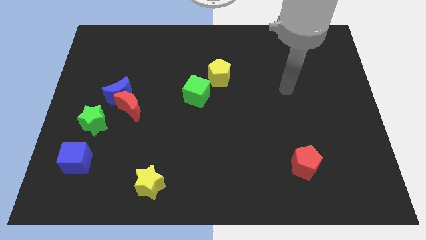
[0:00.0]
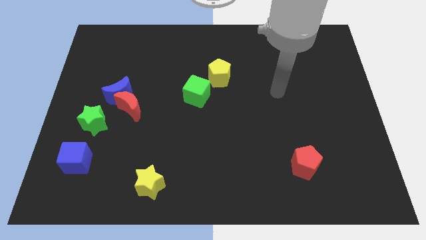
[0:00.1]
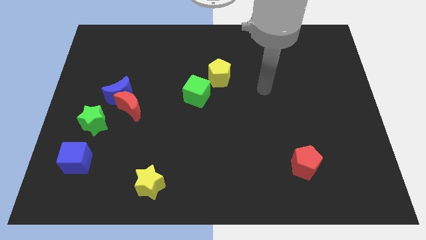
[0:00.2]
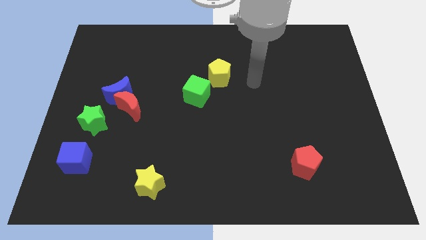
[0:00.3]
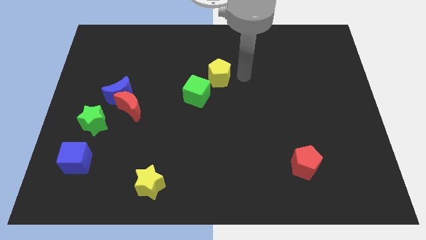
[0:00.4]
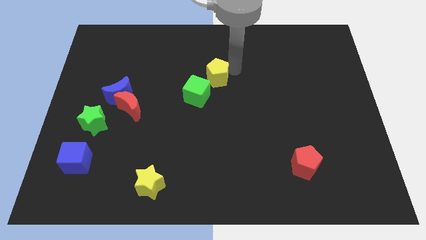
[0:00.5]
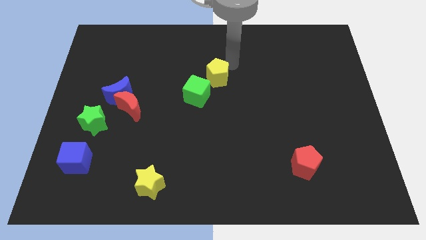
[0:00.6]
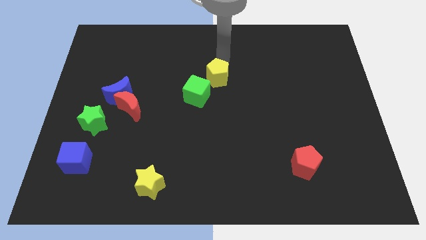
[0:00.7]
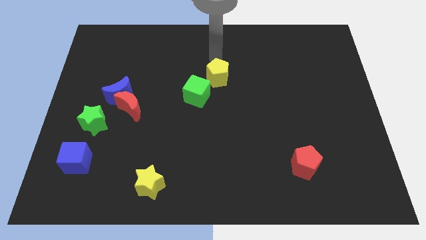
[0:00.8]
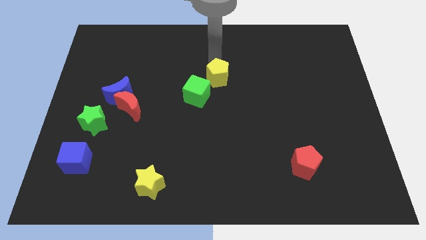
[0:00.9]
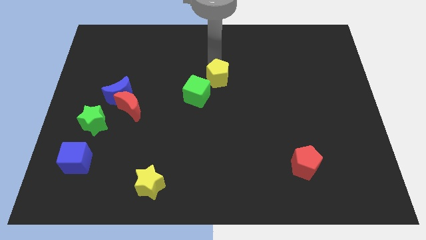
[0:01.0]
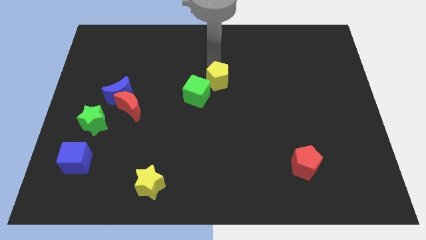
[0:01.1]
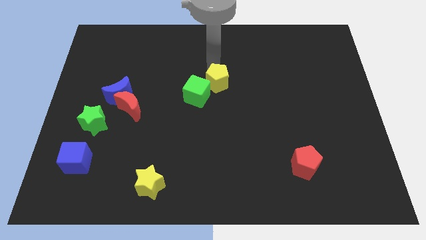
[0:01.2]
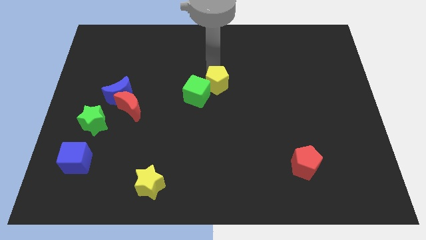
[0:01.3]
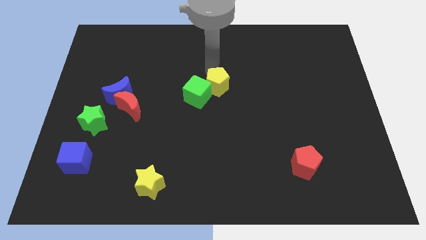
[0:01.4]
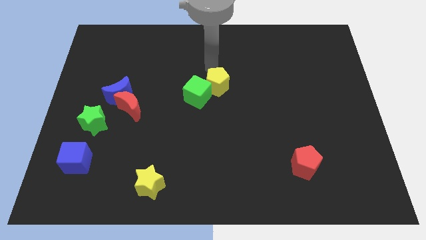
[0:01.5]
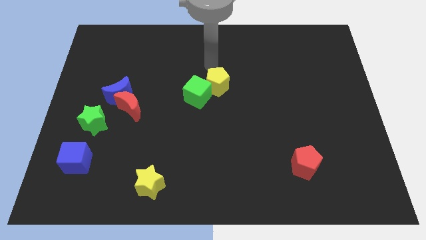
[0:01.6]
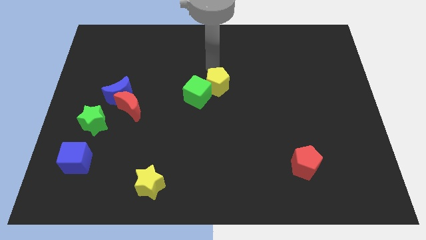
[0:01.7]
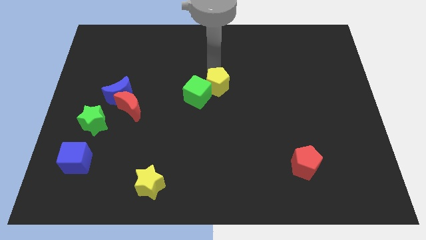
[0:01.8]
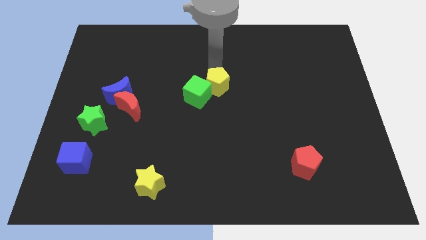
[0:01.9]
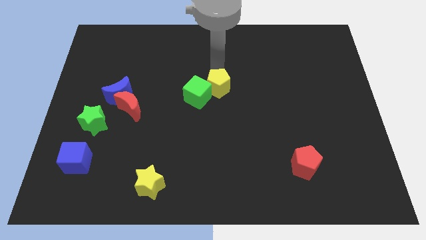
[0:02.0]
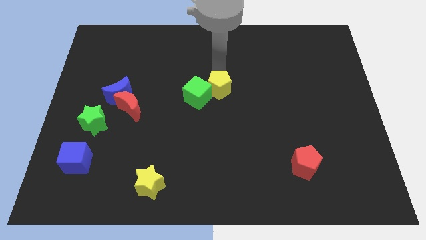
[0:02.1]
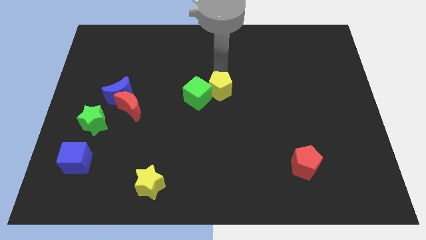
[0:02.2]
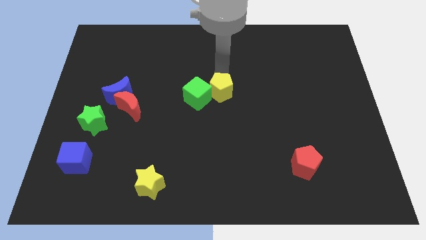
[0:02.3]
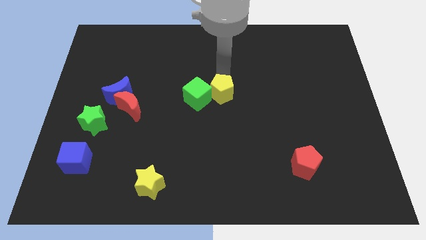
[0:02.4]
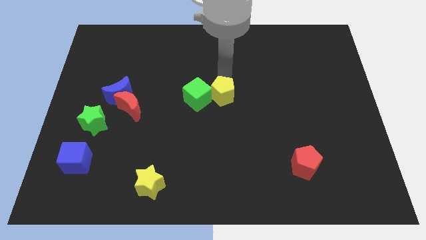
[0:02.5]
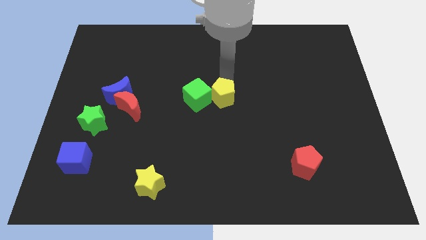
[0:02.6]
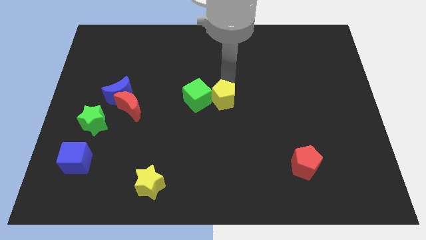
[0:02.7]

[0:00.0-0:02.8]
slide the yellow pentagon somewhat down

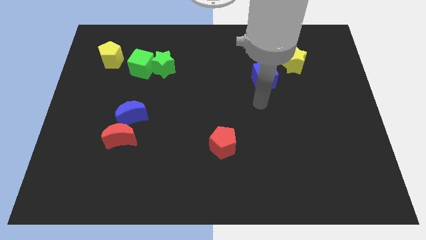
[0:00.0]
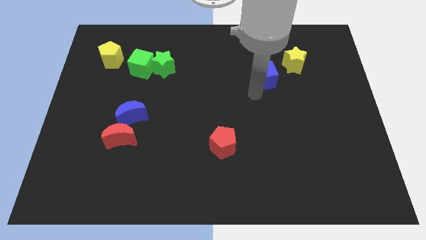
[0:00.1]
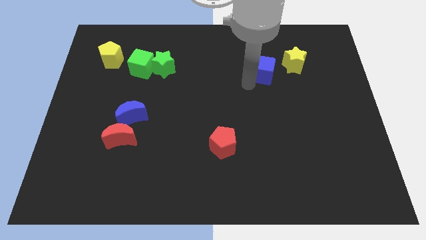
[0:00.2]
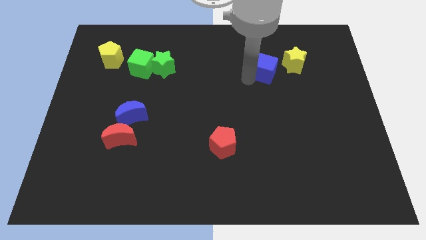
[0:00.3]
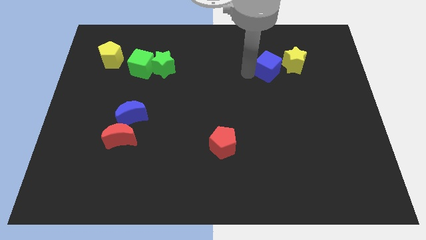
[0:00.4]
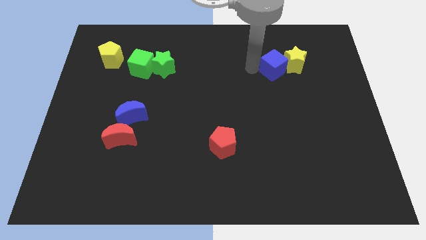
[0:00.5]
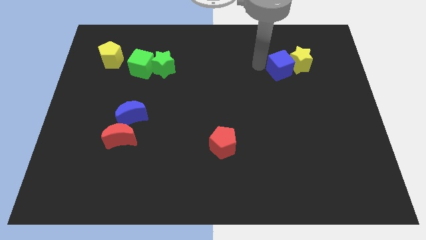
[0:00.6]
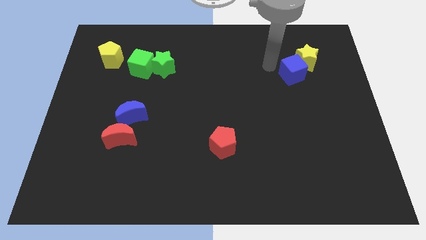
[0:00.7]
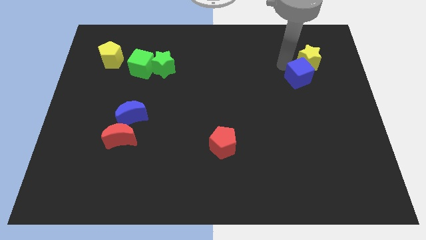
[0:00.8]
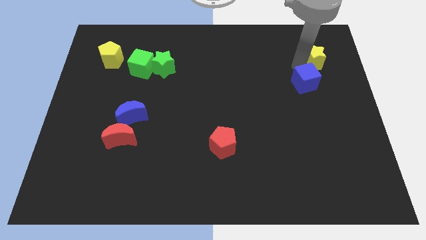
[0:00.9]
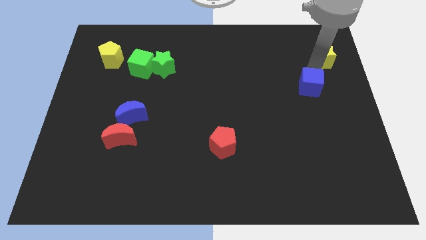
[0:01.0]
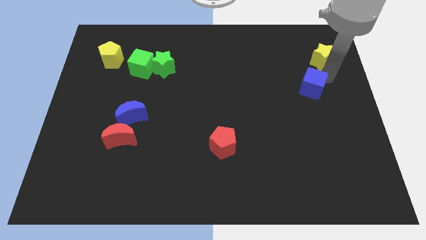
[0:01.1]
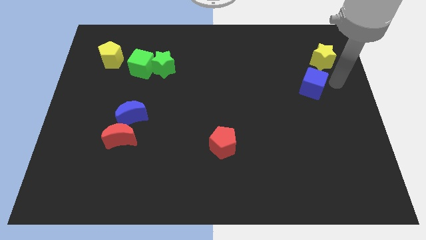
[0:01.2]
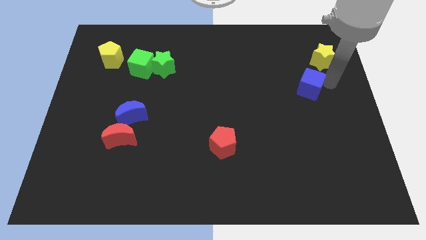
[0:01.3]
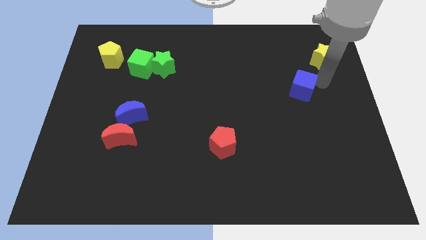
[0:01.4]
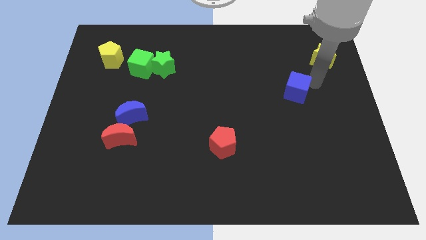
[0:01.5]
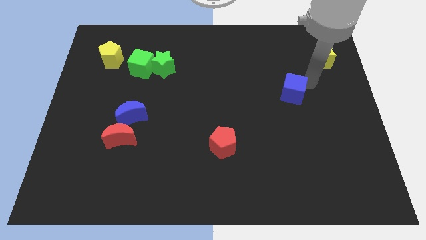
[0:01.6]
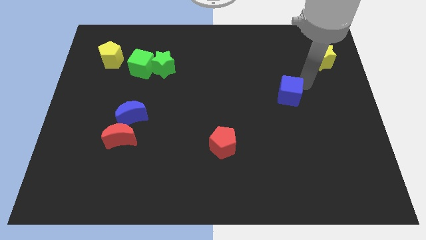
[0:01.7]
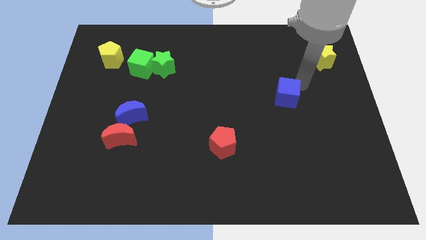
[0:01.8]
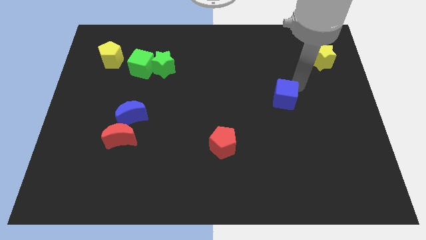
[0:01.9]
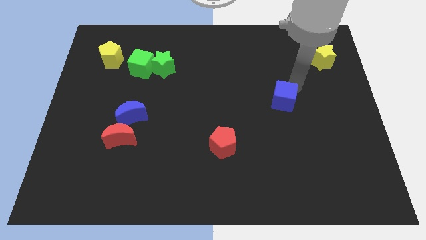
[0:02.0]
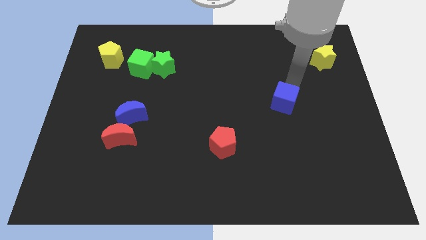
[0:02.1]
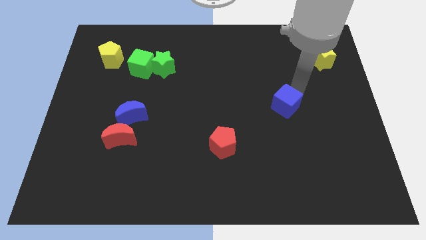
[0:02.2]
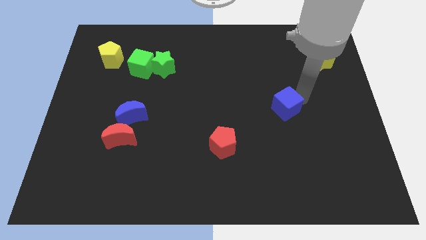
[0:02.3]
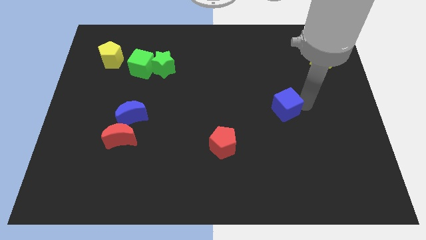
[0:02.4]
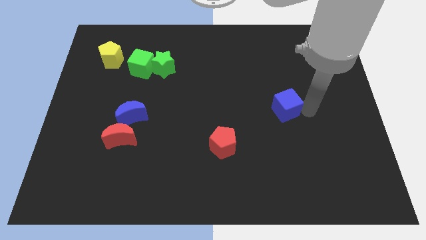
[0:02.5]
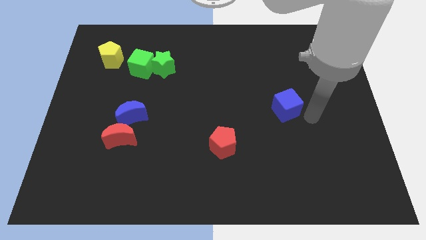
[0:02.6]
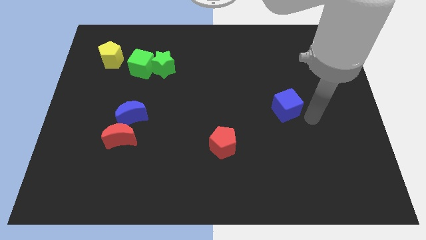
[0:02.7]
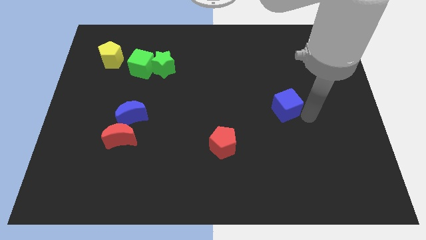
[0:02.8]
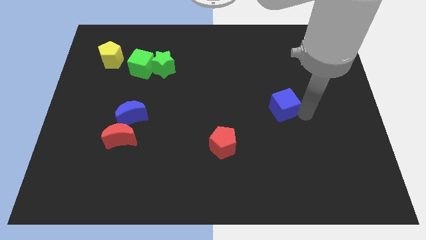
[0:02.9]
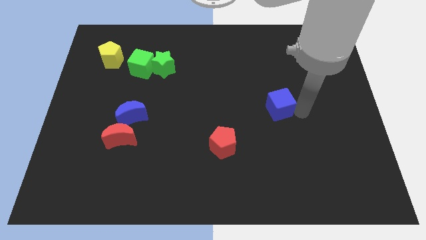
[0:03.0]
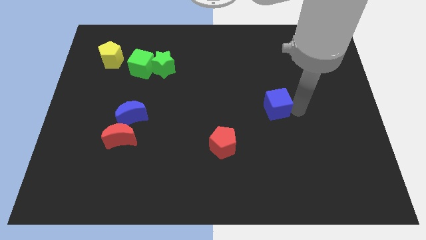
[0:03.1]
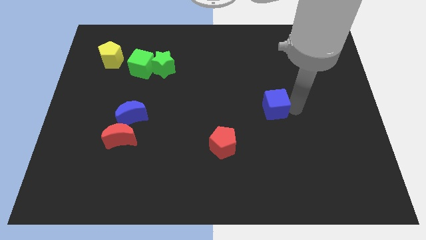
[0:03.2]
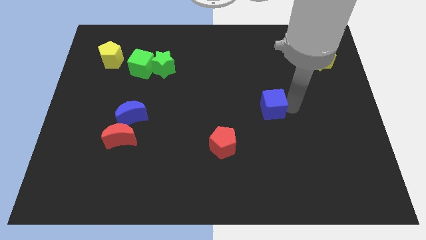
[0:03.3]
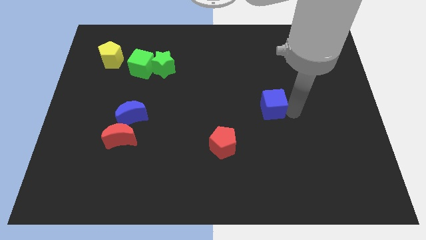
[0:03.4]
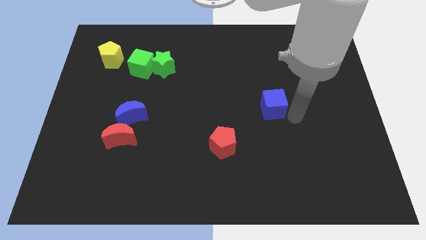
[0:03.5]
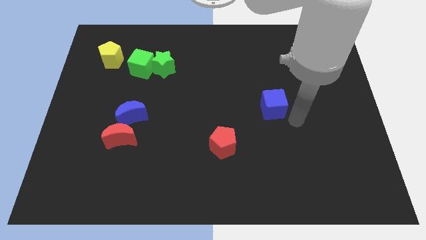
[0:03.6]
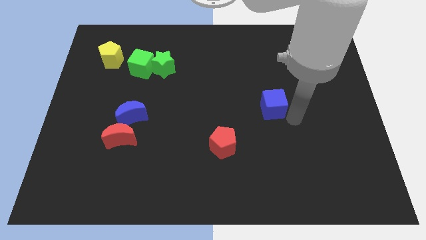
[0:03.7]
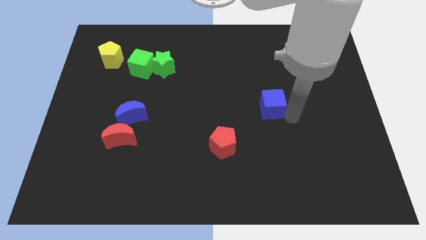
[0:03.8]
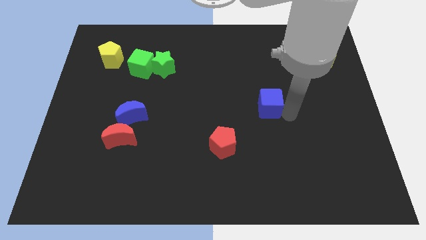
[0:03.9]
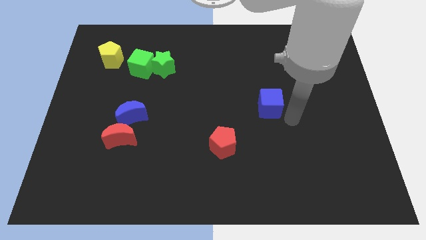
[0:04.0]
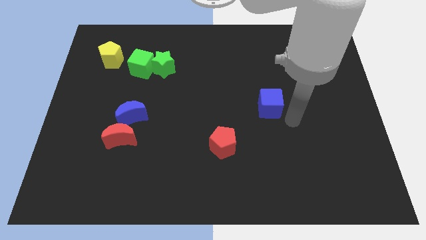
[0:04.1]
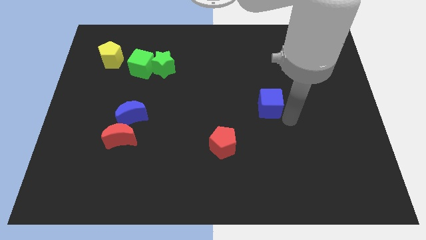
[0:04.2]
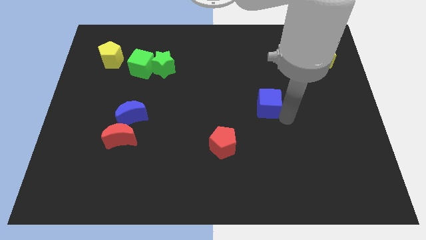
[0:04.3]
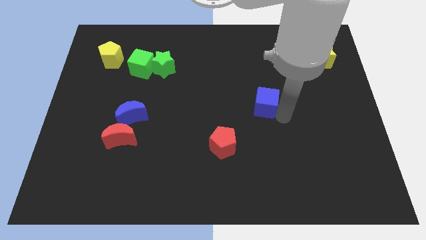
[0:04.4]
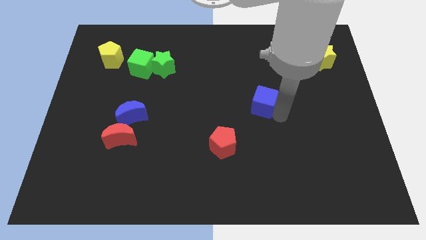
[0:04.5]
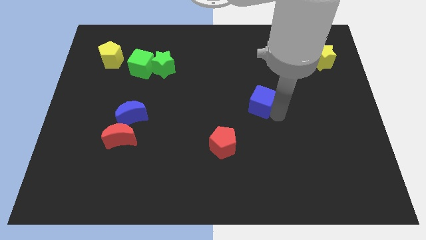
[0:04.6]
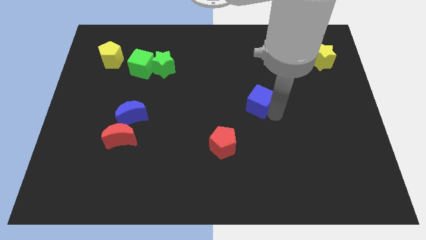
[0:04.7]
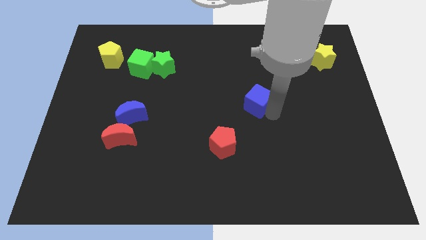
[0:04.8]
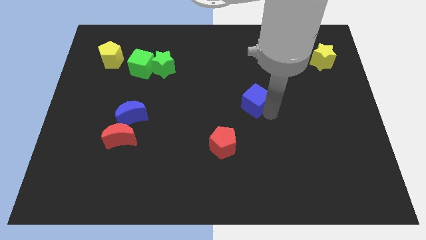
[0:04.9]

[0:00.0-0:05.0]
slide the blue cube a little bit downwards and then to the left

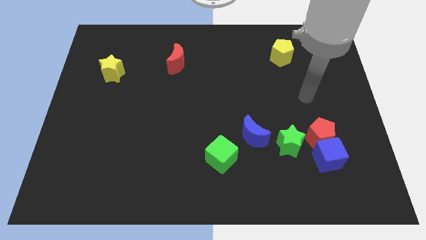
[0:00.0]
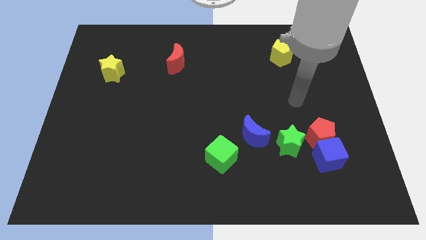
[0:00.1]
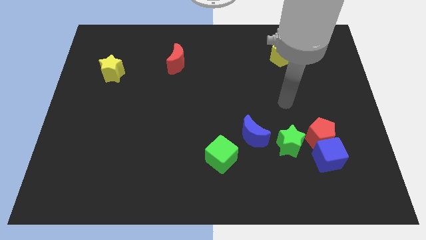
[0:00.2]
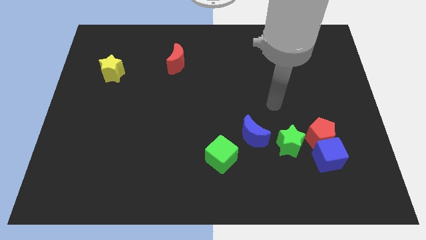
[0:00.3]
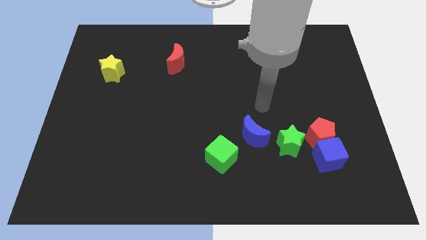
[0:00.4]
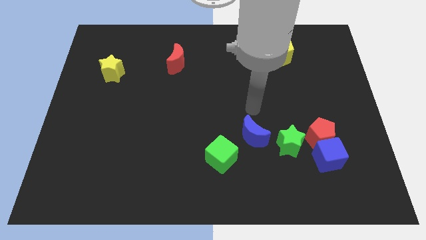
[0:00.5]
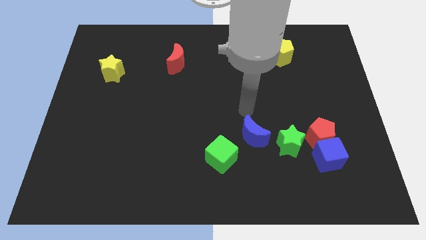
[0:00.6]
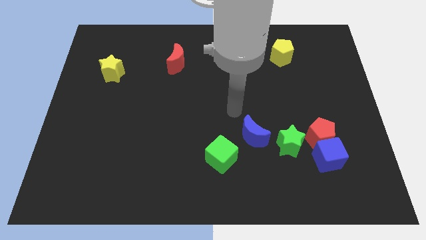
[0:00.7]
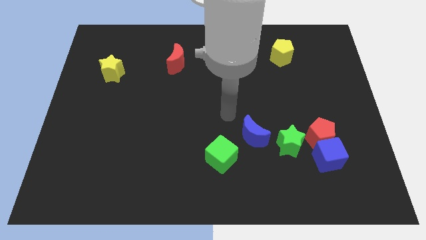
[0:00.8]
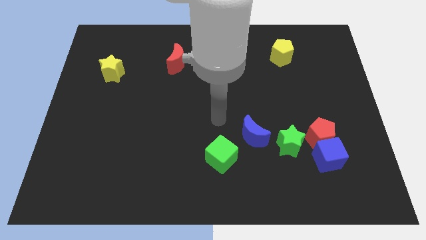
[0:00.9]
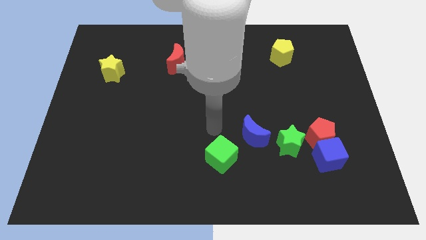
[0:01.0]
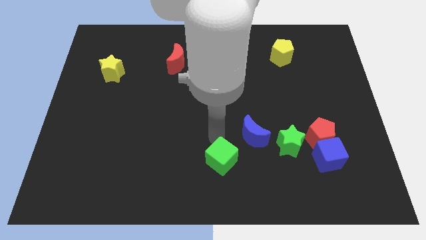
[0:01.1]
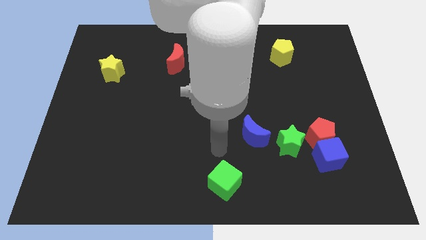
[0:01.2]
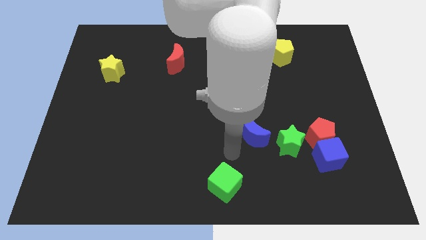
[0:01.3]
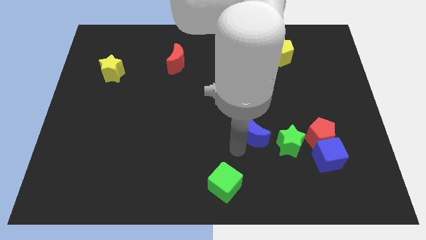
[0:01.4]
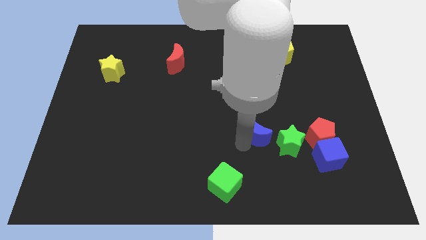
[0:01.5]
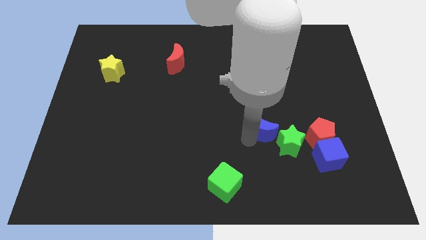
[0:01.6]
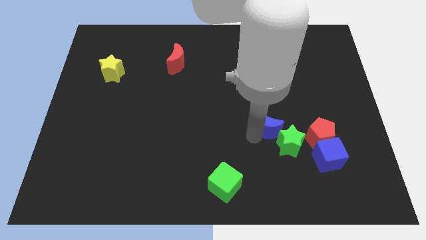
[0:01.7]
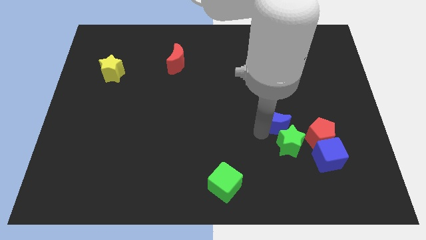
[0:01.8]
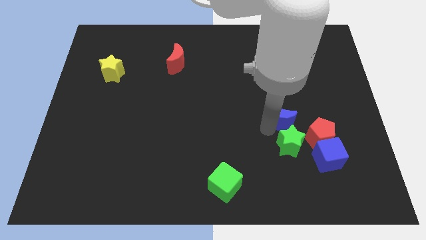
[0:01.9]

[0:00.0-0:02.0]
slide the blue moon a little bit up and right diagonally
